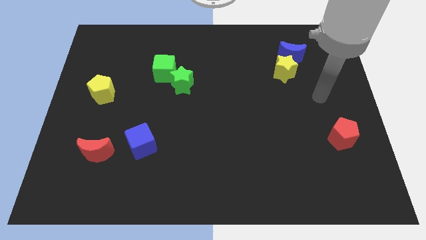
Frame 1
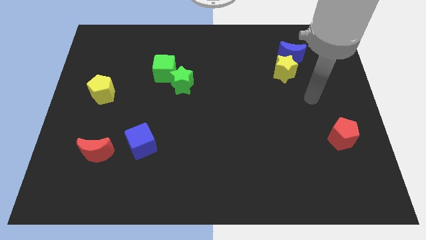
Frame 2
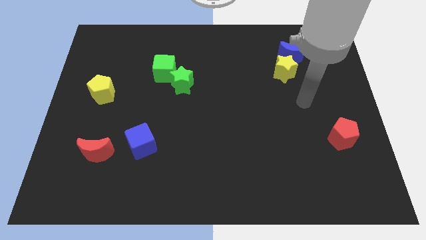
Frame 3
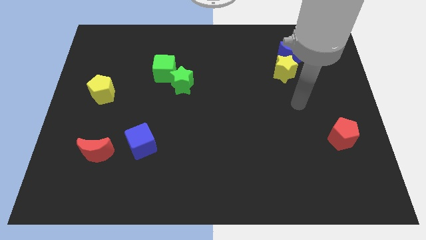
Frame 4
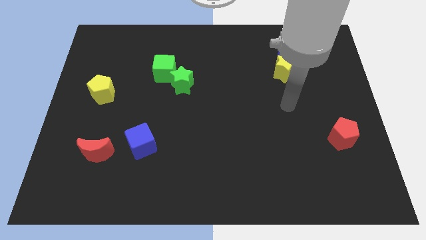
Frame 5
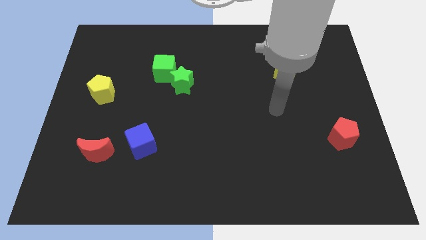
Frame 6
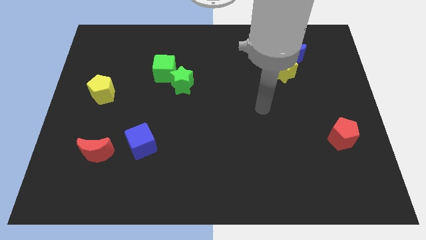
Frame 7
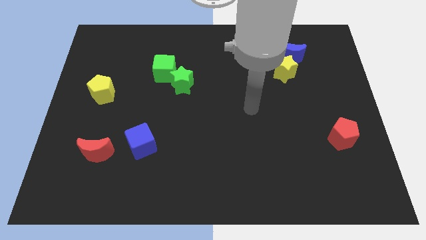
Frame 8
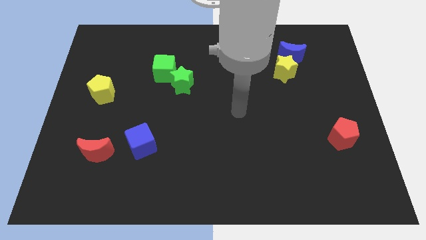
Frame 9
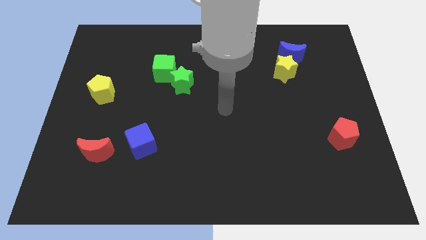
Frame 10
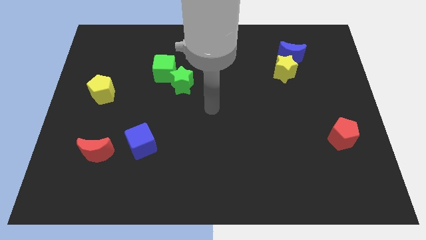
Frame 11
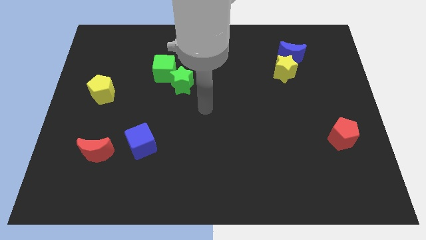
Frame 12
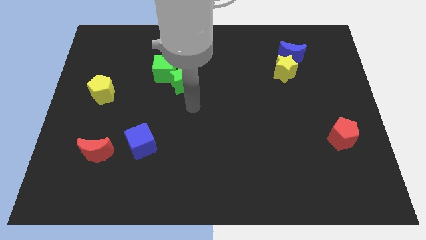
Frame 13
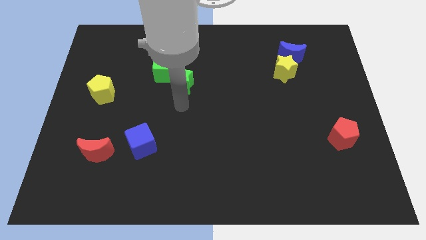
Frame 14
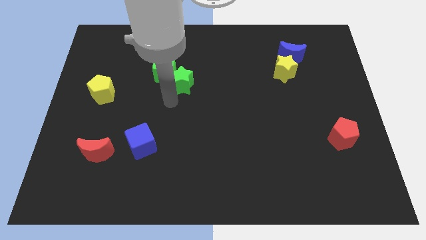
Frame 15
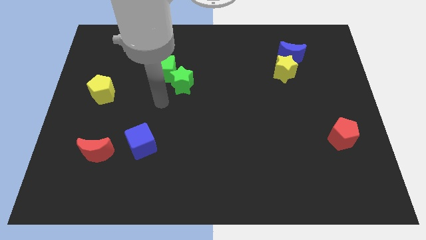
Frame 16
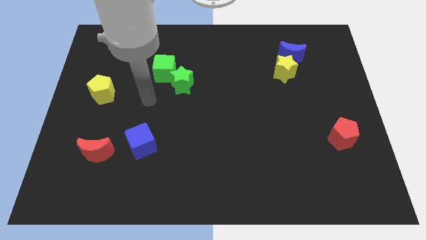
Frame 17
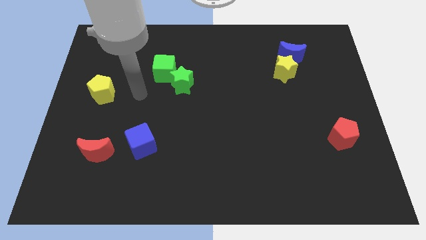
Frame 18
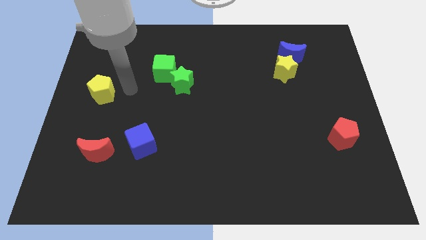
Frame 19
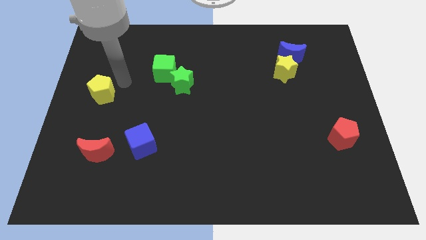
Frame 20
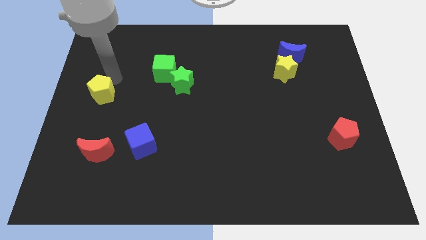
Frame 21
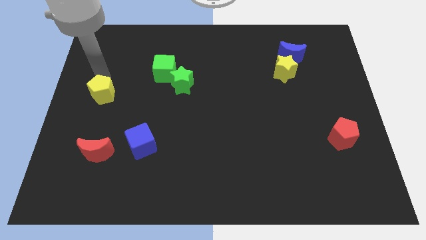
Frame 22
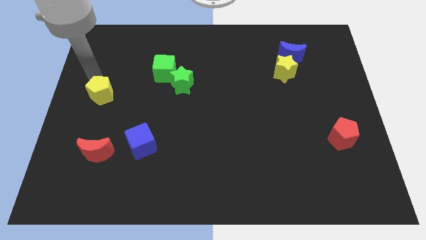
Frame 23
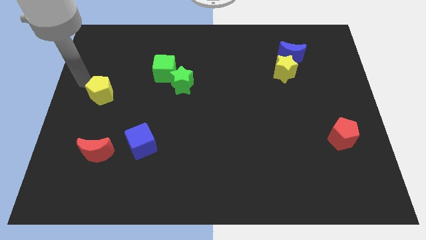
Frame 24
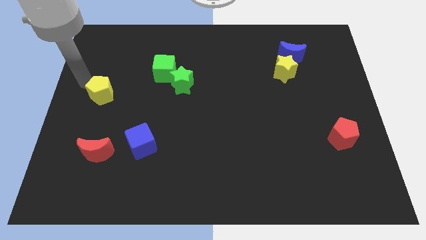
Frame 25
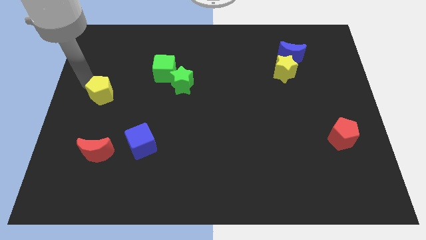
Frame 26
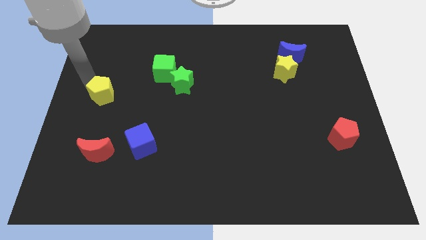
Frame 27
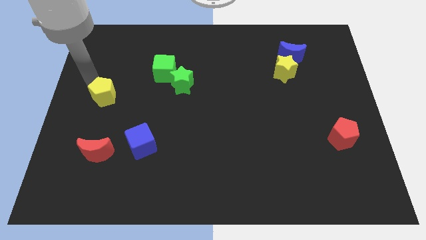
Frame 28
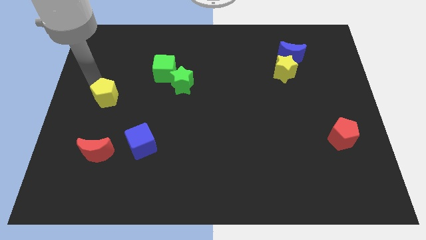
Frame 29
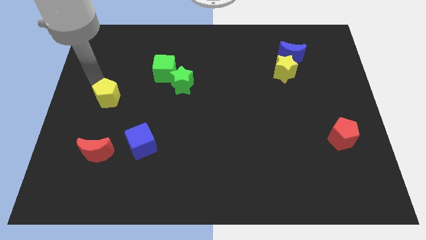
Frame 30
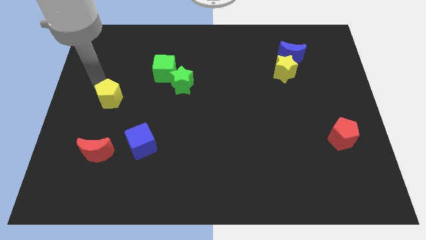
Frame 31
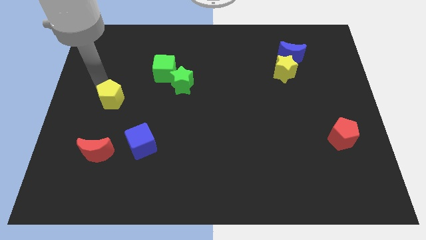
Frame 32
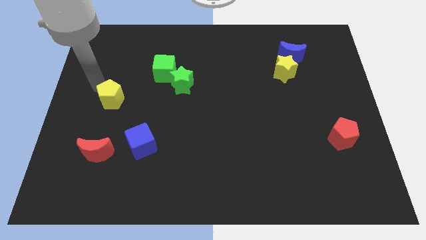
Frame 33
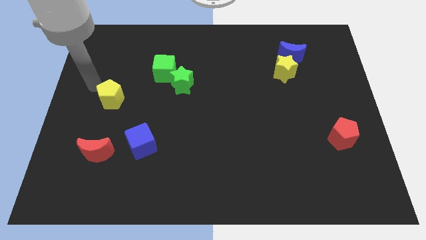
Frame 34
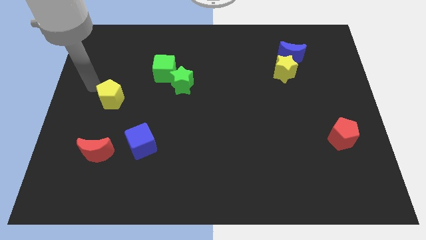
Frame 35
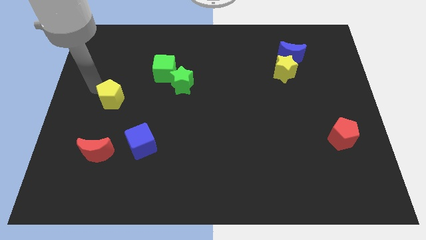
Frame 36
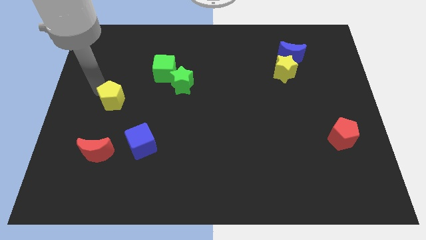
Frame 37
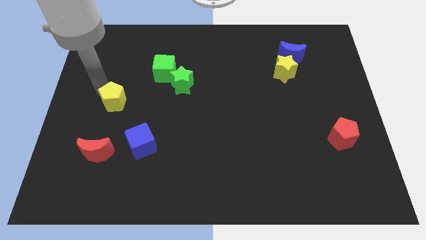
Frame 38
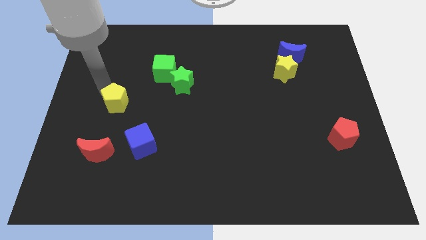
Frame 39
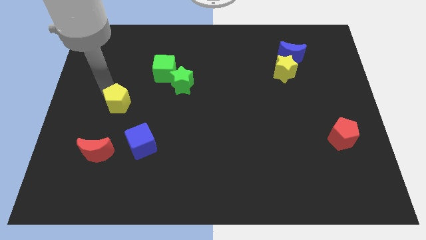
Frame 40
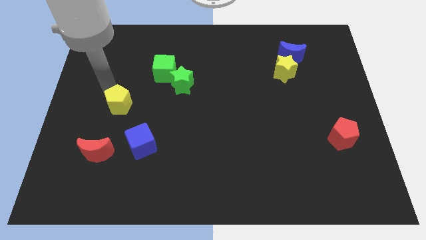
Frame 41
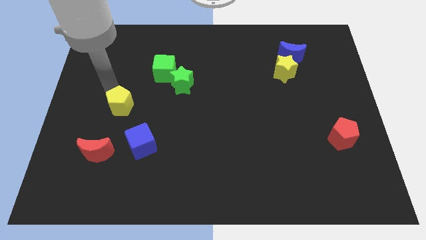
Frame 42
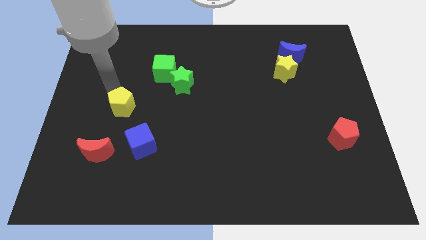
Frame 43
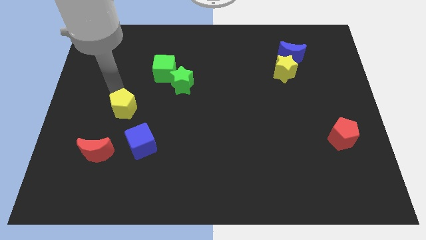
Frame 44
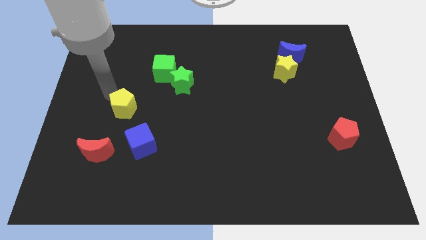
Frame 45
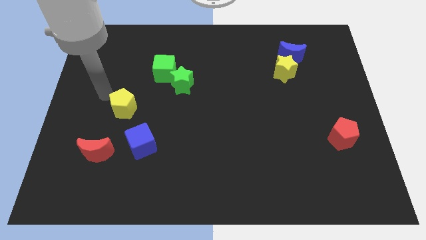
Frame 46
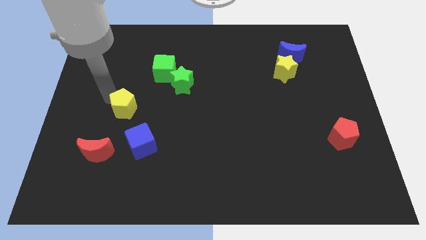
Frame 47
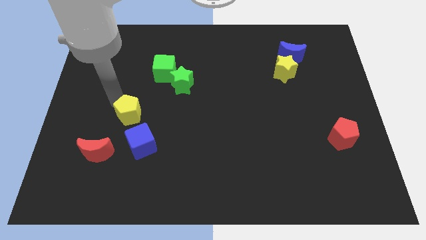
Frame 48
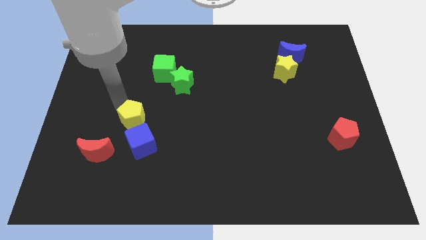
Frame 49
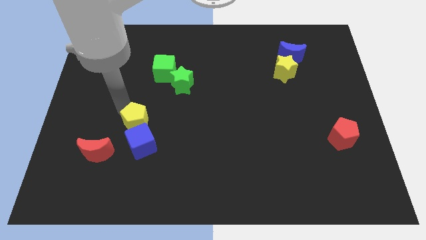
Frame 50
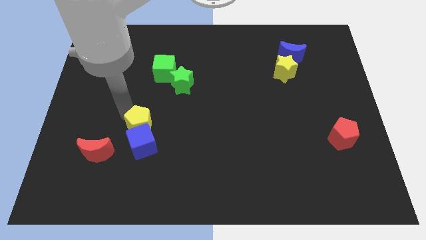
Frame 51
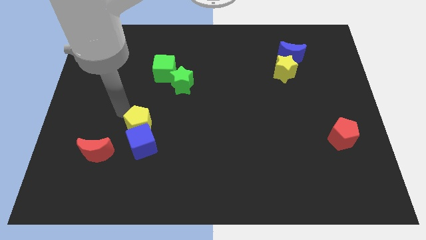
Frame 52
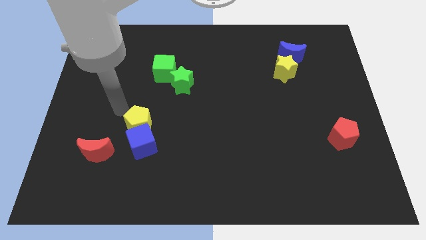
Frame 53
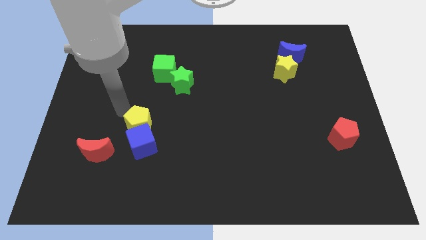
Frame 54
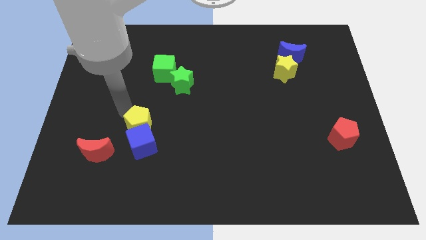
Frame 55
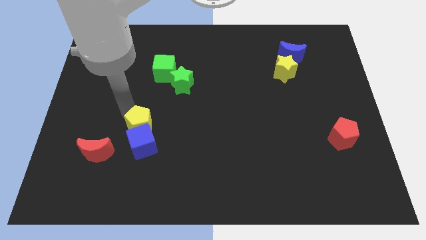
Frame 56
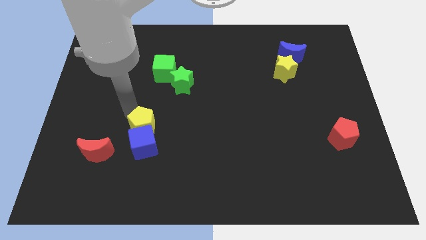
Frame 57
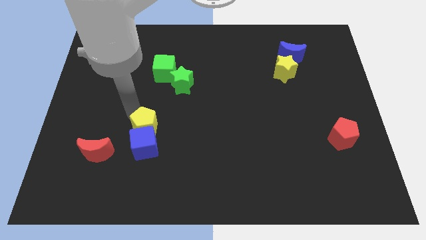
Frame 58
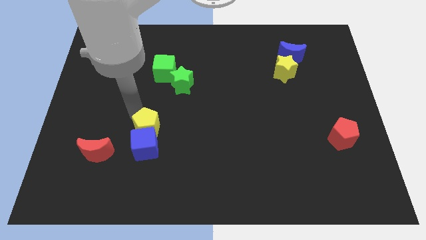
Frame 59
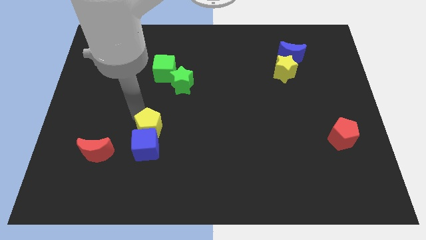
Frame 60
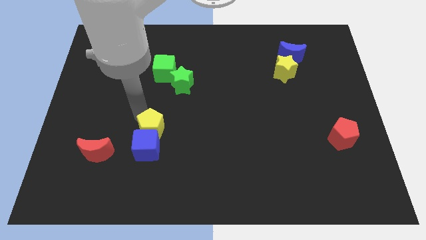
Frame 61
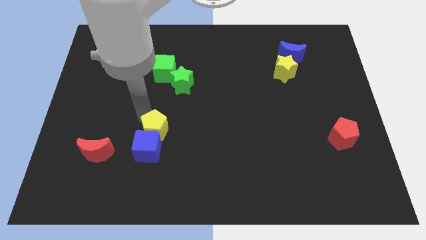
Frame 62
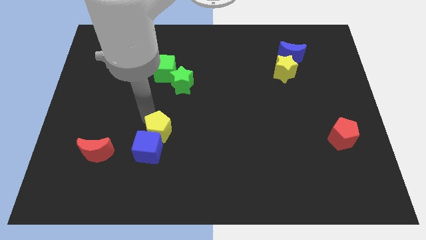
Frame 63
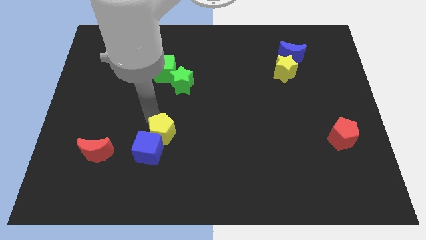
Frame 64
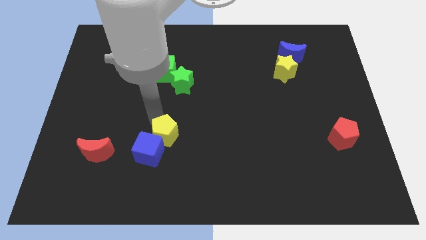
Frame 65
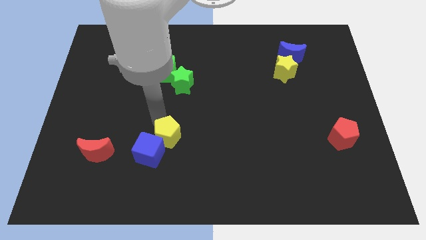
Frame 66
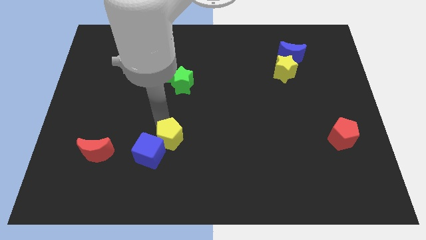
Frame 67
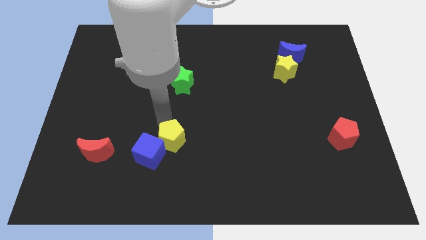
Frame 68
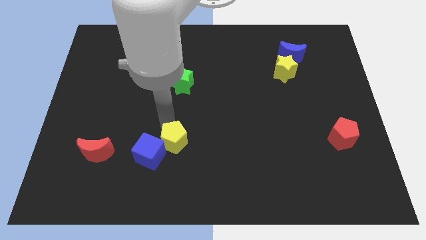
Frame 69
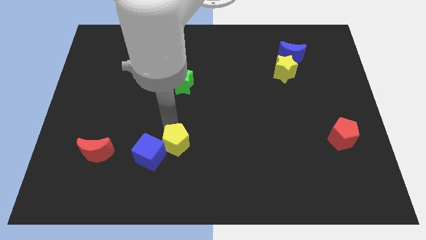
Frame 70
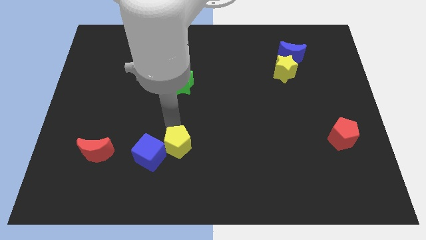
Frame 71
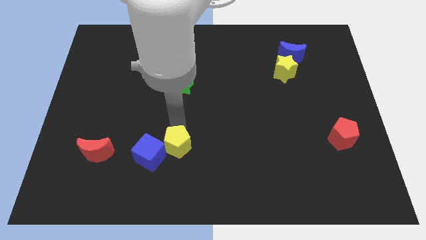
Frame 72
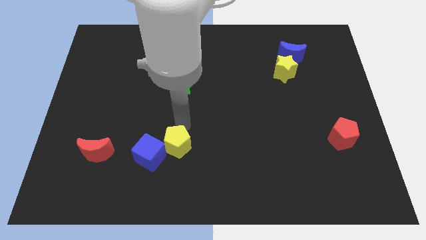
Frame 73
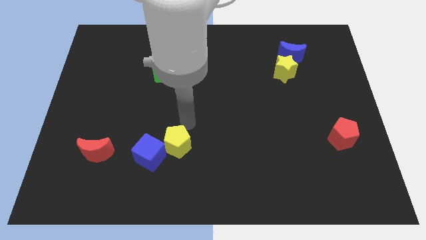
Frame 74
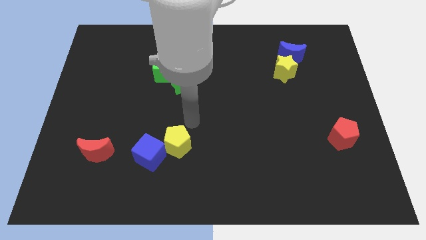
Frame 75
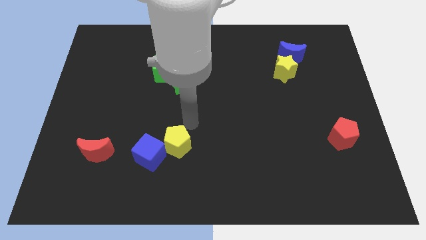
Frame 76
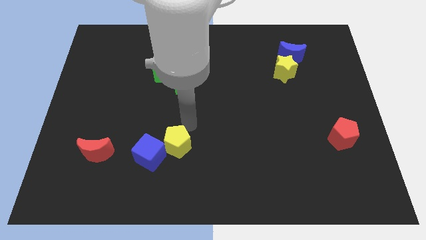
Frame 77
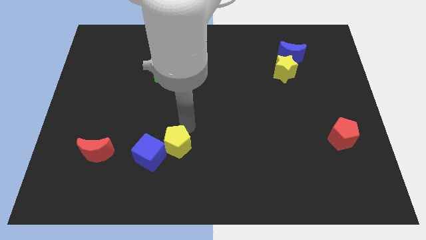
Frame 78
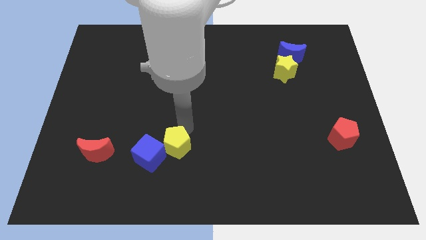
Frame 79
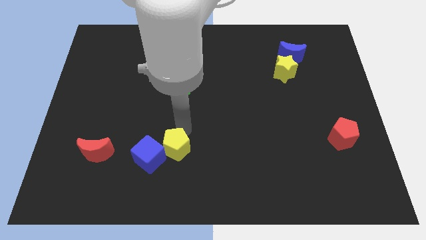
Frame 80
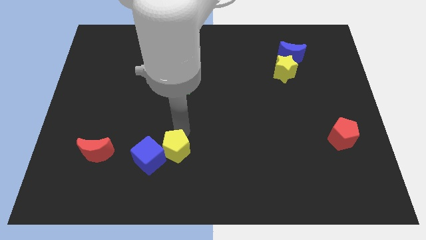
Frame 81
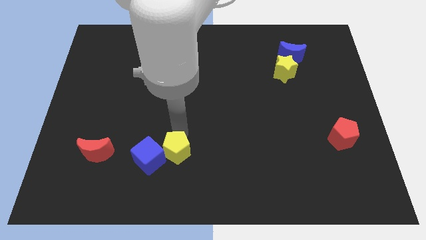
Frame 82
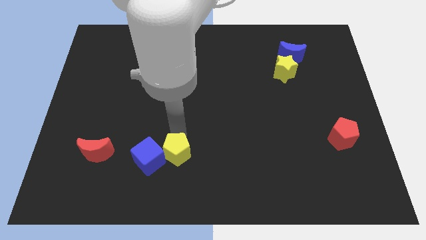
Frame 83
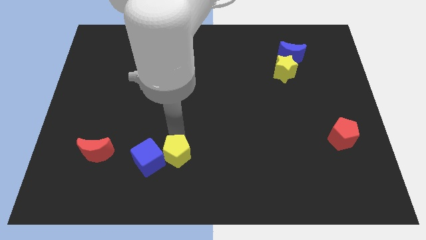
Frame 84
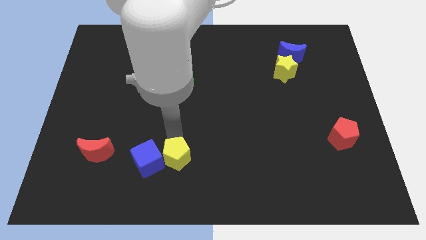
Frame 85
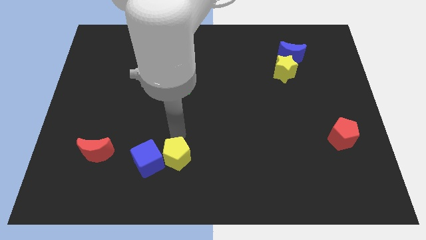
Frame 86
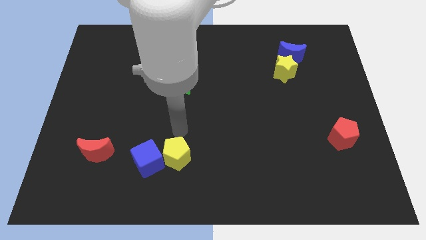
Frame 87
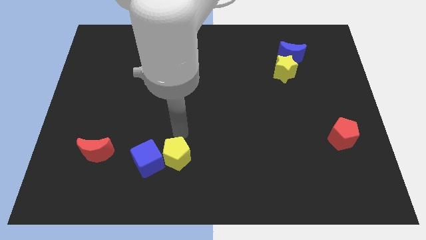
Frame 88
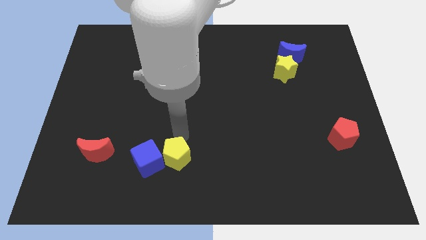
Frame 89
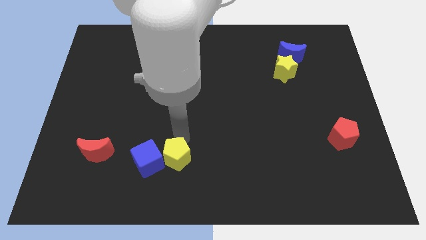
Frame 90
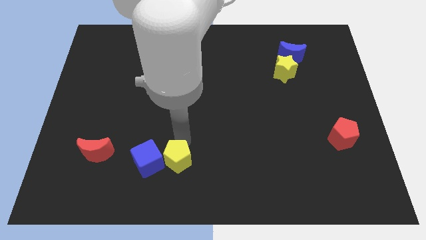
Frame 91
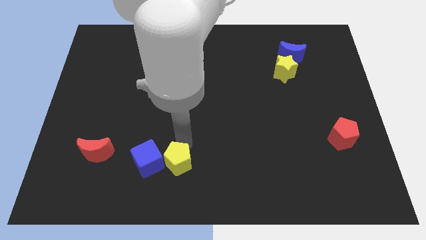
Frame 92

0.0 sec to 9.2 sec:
move the yellow pentagon to the bottom side
